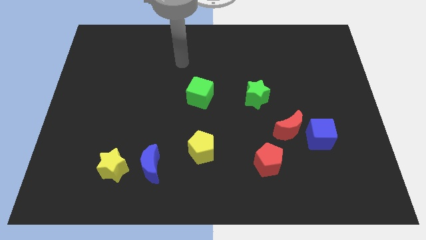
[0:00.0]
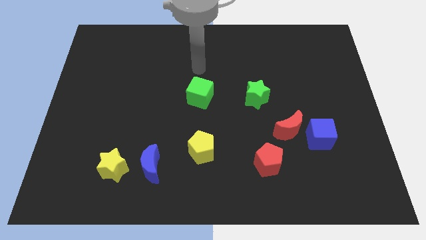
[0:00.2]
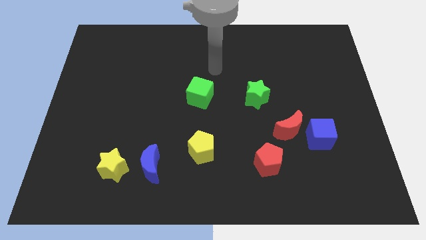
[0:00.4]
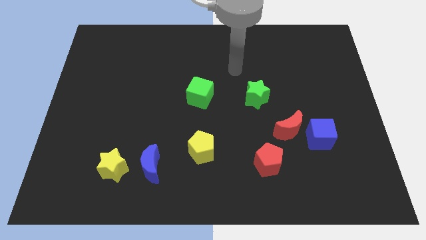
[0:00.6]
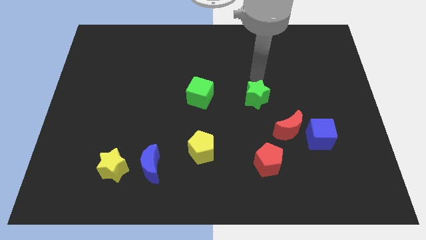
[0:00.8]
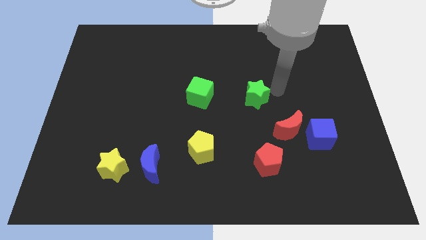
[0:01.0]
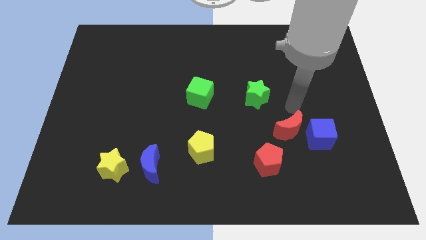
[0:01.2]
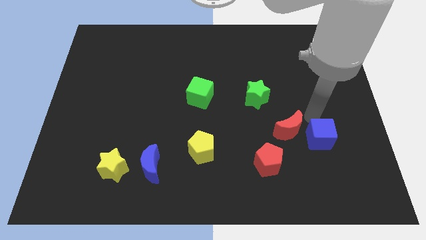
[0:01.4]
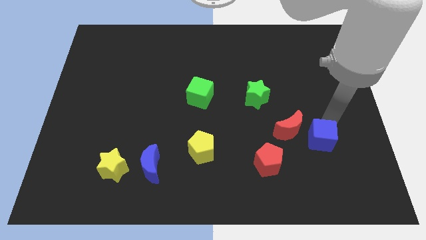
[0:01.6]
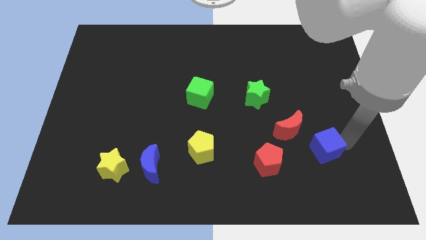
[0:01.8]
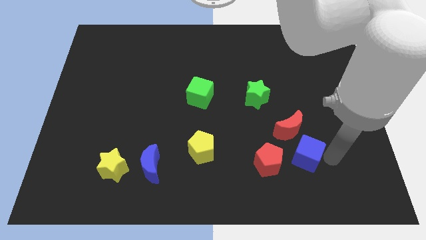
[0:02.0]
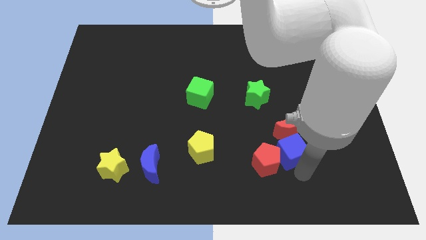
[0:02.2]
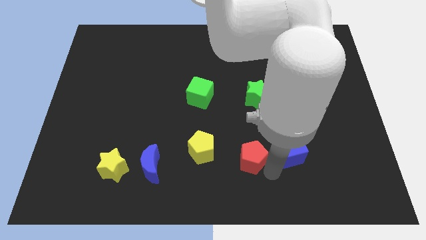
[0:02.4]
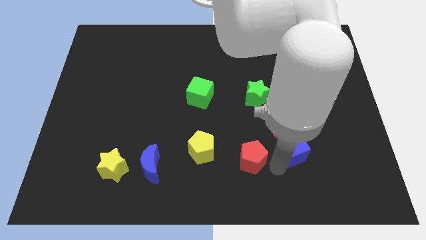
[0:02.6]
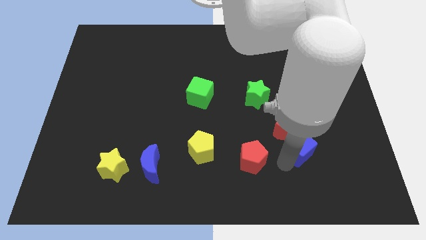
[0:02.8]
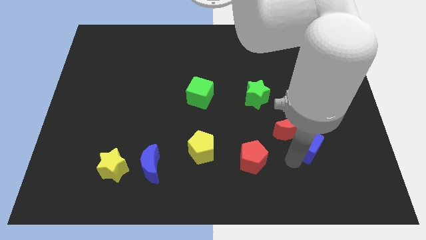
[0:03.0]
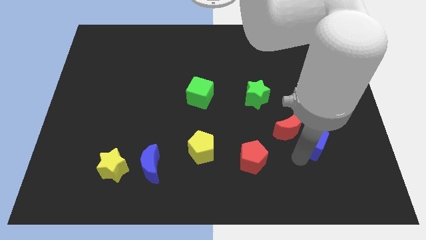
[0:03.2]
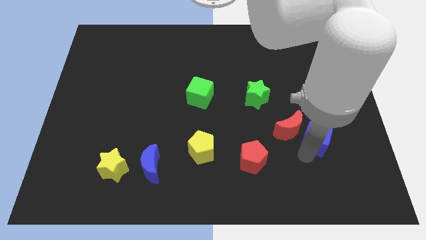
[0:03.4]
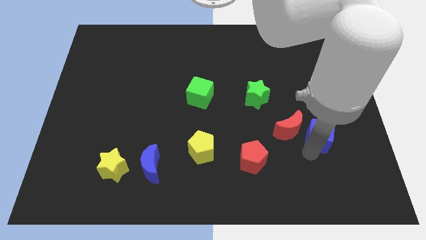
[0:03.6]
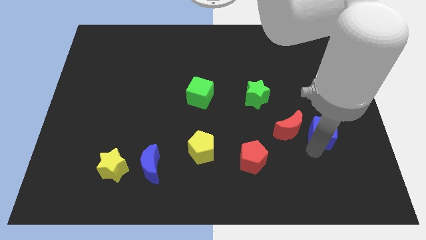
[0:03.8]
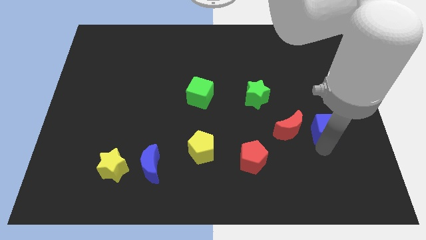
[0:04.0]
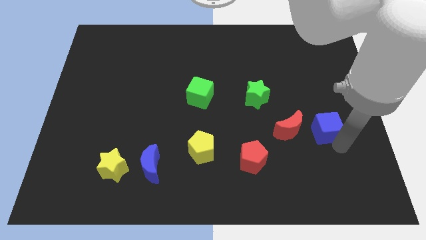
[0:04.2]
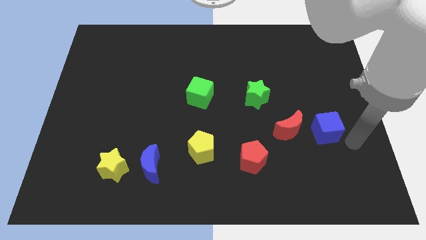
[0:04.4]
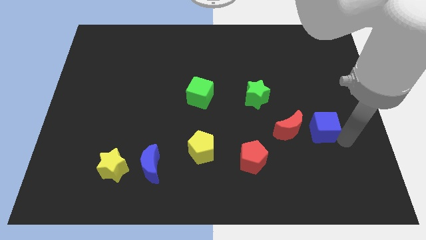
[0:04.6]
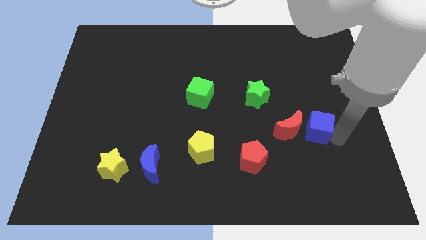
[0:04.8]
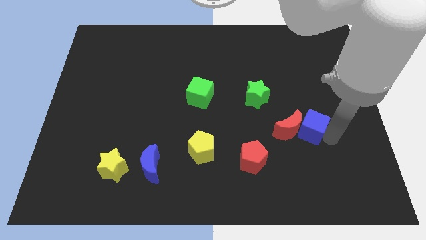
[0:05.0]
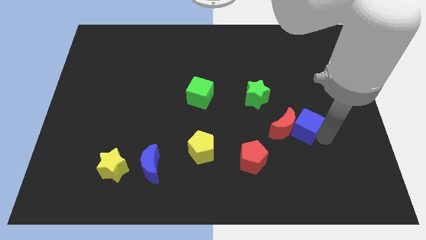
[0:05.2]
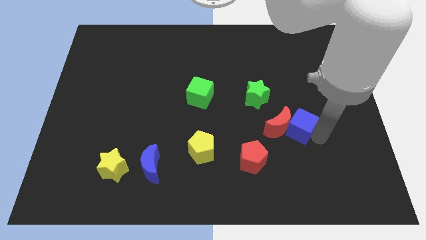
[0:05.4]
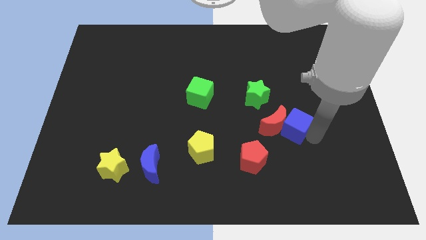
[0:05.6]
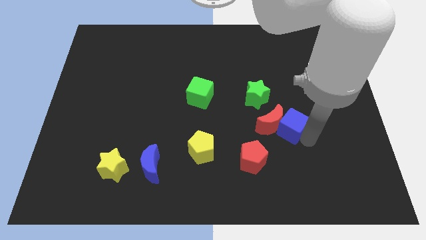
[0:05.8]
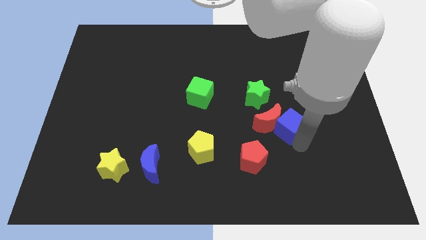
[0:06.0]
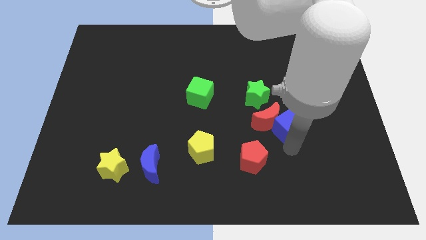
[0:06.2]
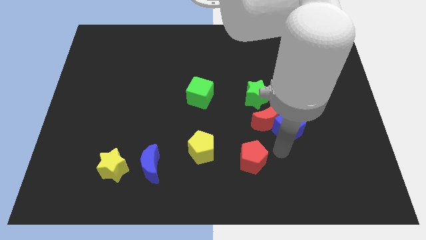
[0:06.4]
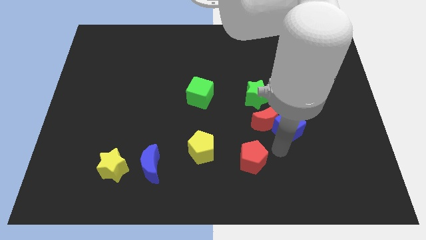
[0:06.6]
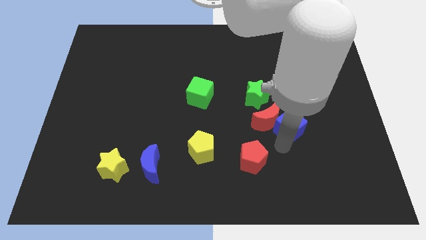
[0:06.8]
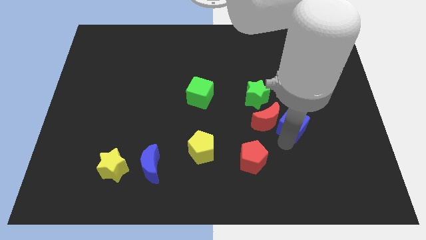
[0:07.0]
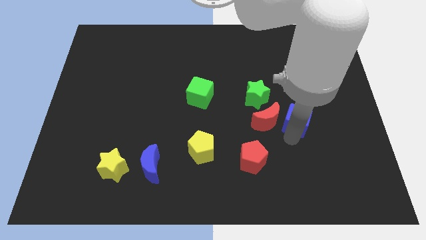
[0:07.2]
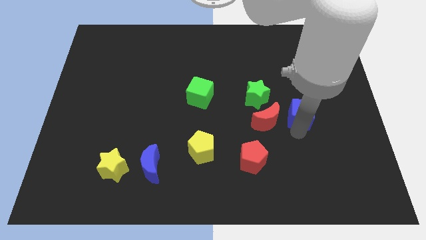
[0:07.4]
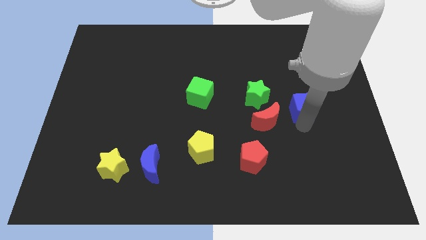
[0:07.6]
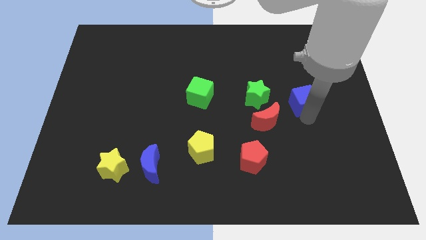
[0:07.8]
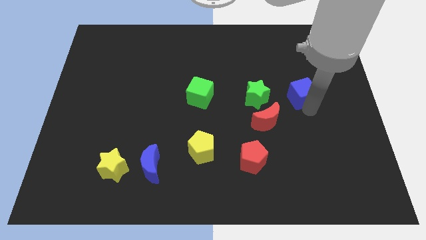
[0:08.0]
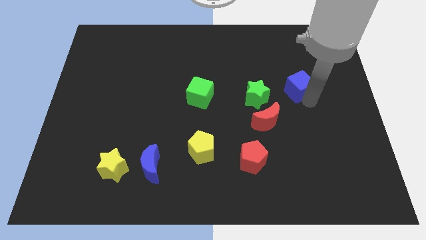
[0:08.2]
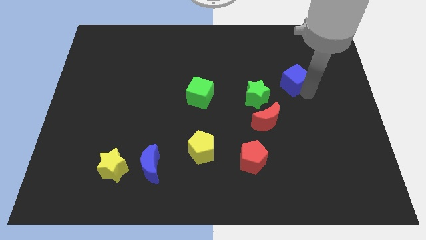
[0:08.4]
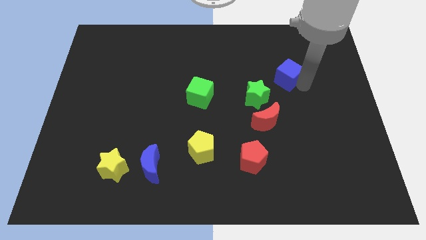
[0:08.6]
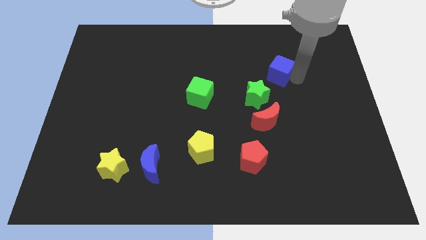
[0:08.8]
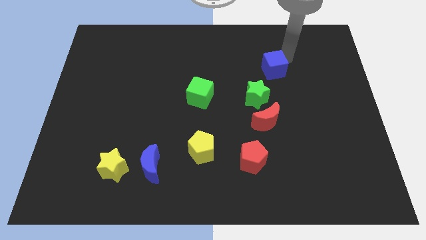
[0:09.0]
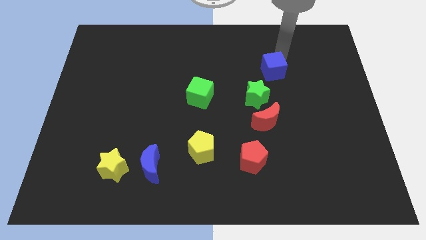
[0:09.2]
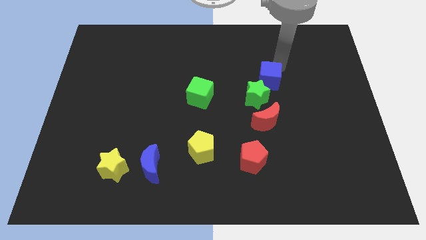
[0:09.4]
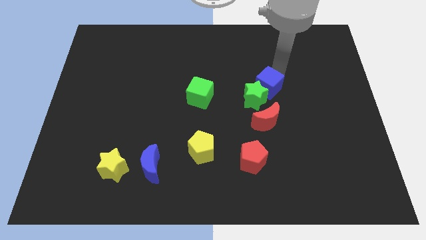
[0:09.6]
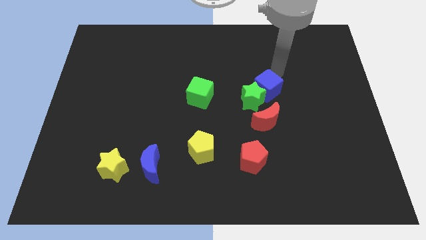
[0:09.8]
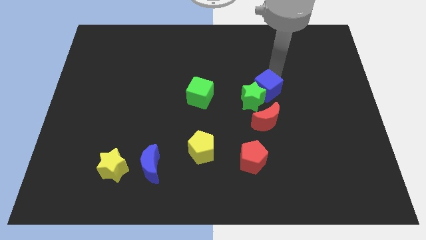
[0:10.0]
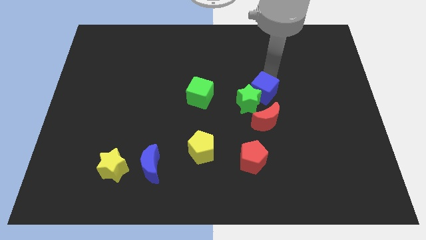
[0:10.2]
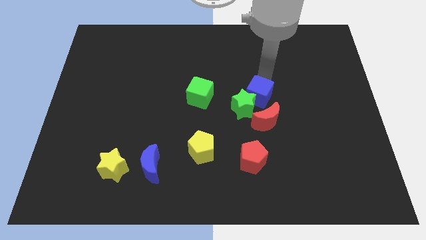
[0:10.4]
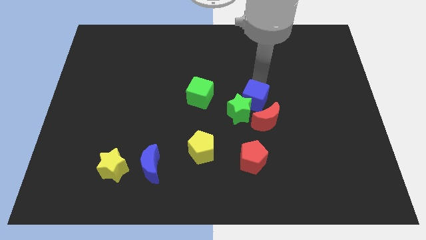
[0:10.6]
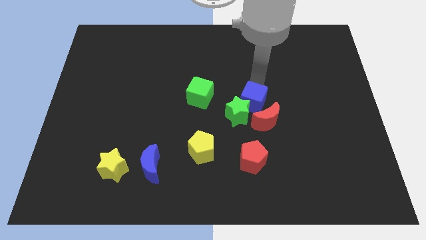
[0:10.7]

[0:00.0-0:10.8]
put the blue cube to the top side of the red pentagon

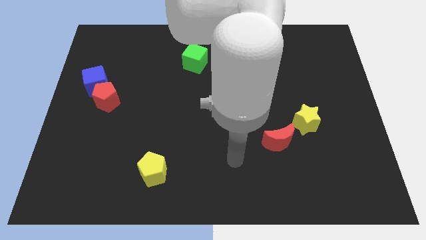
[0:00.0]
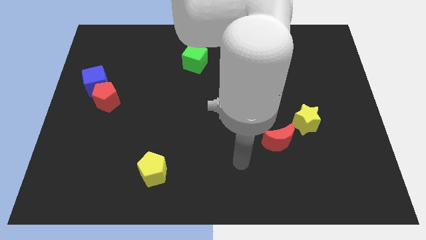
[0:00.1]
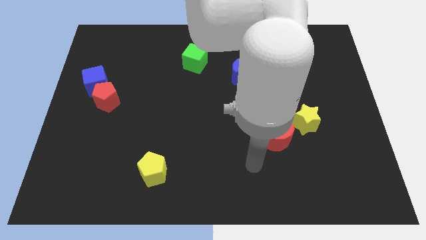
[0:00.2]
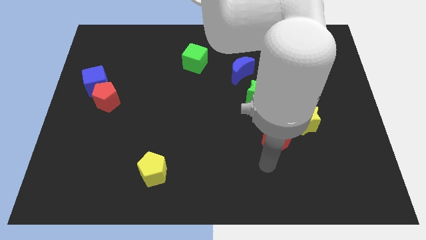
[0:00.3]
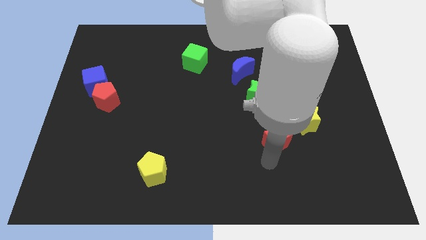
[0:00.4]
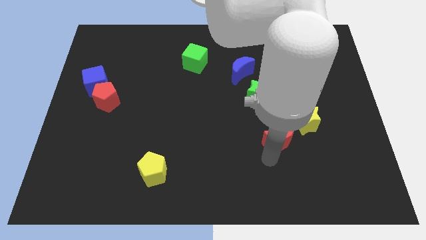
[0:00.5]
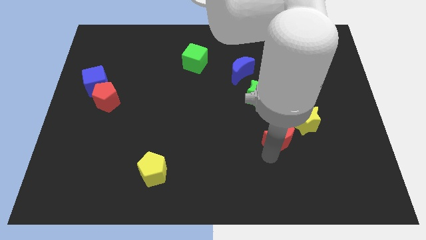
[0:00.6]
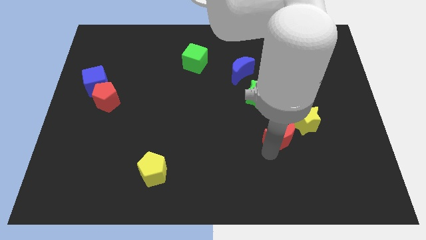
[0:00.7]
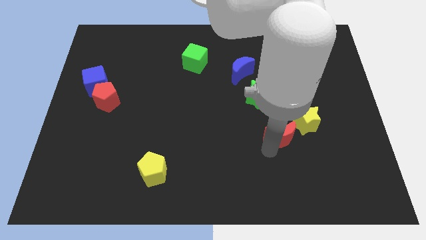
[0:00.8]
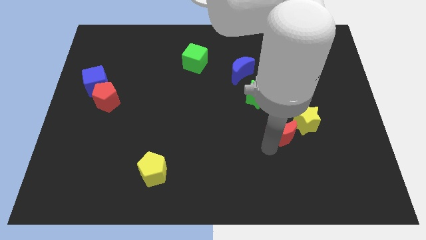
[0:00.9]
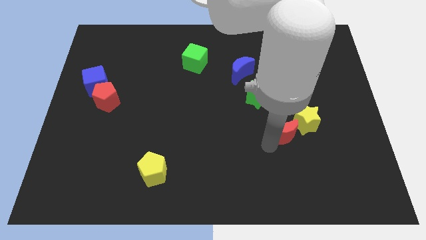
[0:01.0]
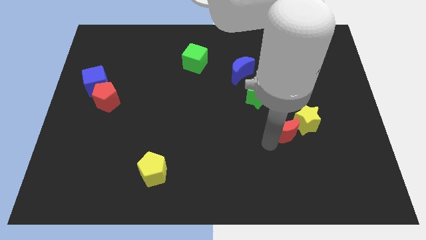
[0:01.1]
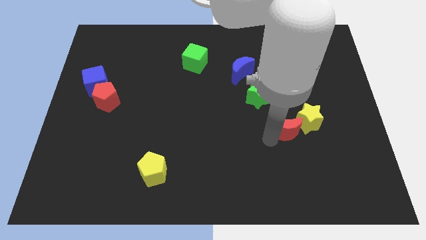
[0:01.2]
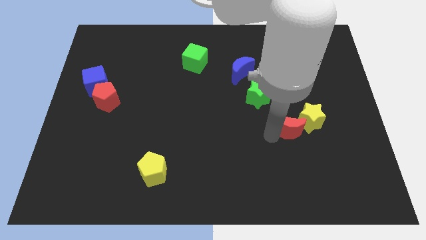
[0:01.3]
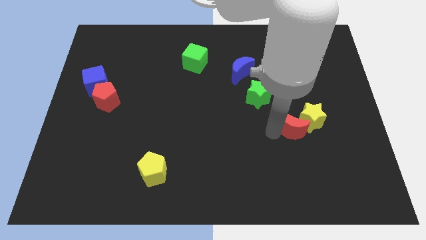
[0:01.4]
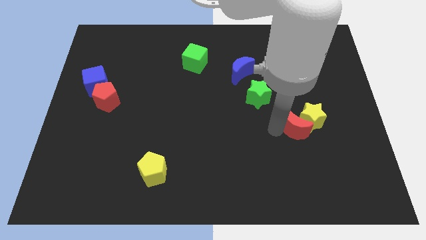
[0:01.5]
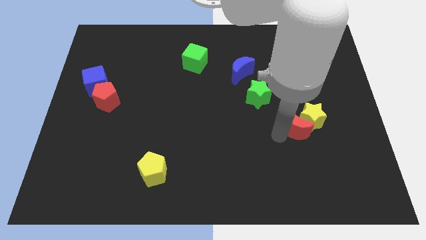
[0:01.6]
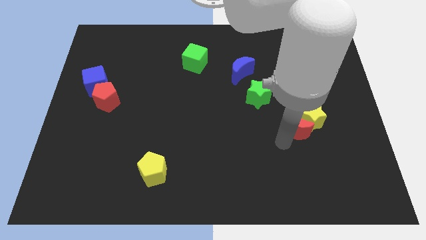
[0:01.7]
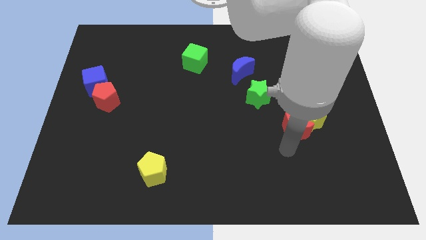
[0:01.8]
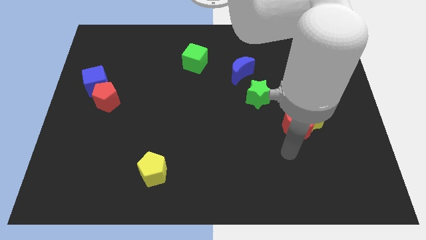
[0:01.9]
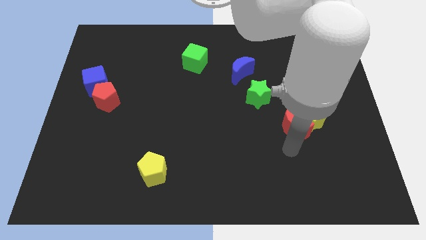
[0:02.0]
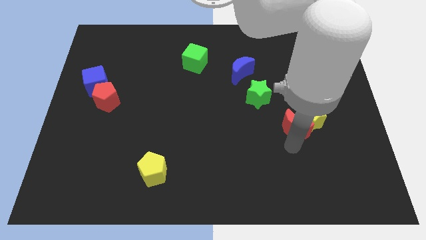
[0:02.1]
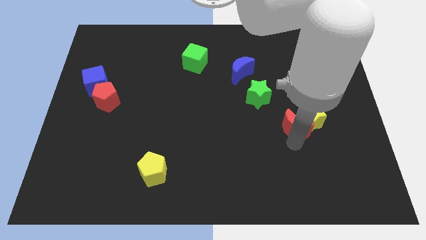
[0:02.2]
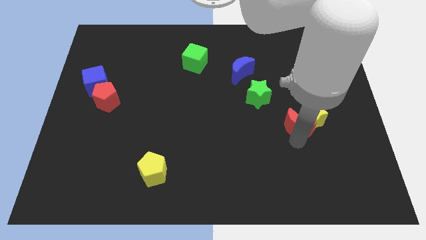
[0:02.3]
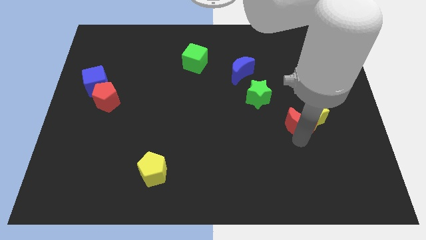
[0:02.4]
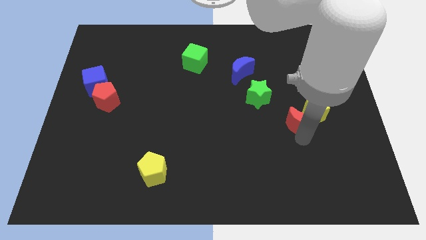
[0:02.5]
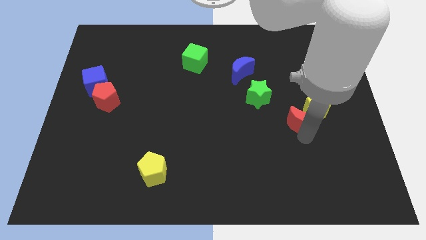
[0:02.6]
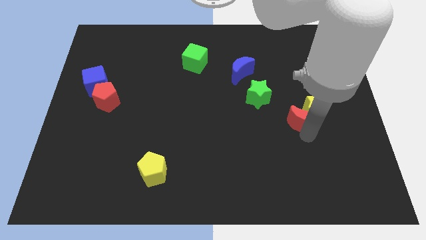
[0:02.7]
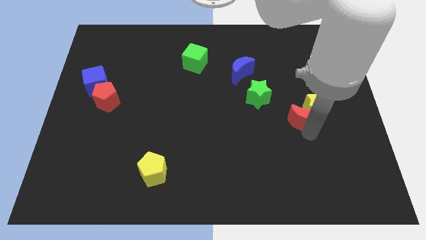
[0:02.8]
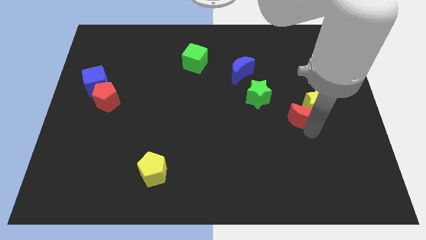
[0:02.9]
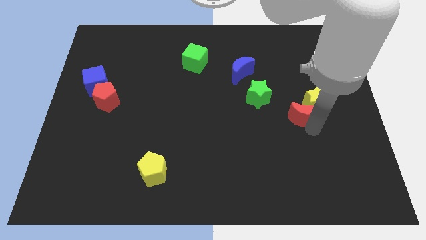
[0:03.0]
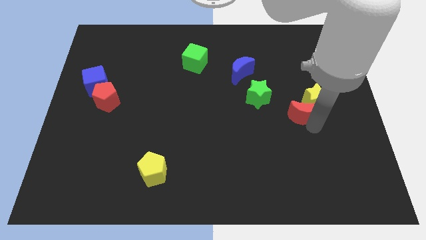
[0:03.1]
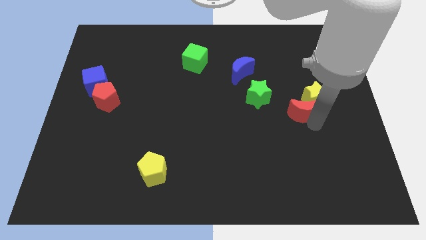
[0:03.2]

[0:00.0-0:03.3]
put the red moon to the right of the green star
